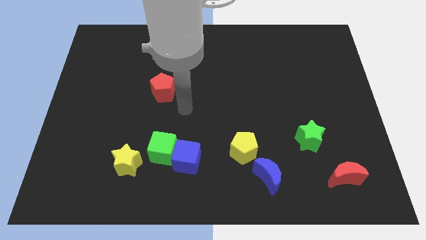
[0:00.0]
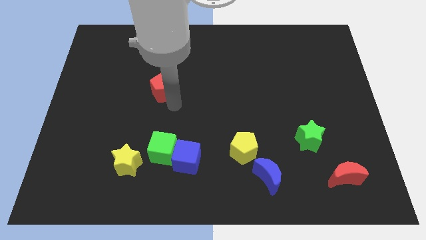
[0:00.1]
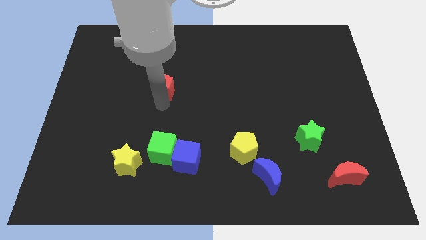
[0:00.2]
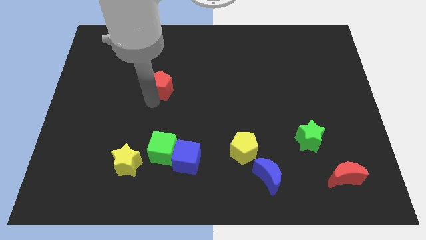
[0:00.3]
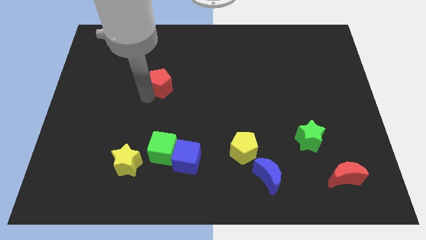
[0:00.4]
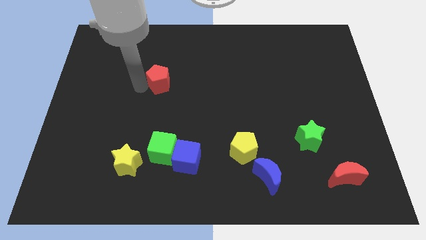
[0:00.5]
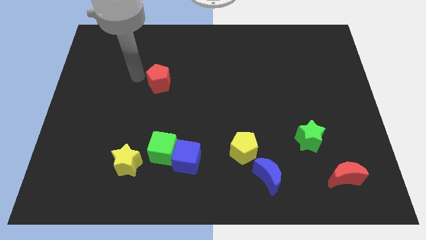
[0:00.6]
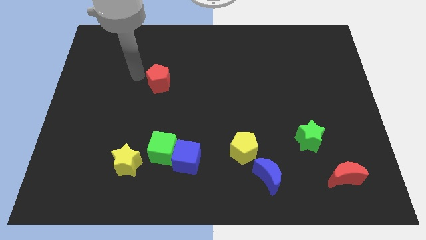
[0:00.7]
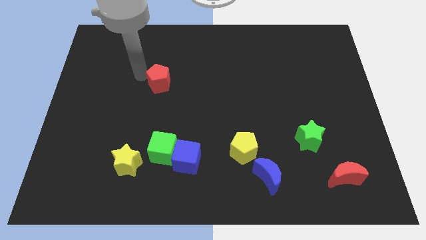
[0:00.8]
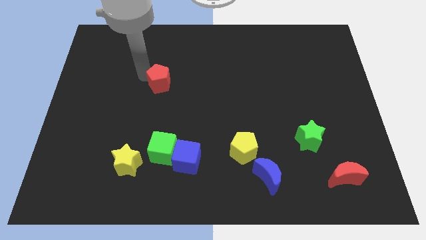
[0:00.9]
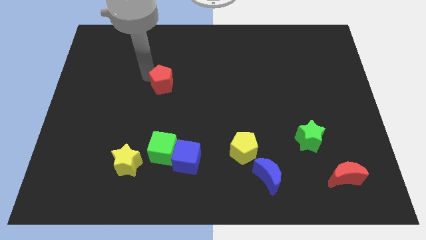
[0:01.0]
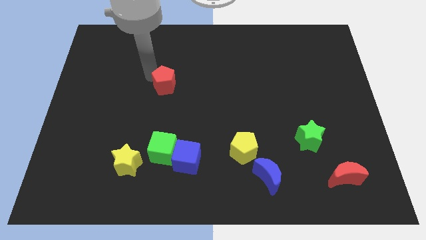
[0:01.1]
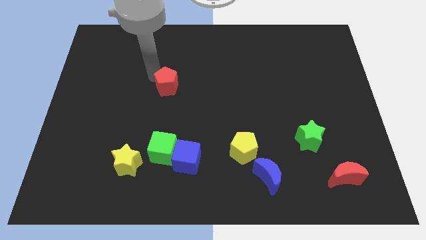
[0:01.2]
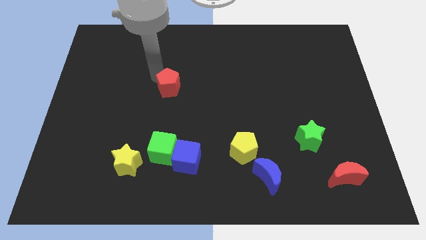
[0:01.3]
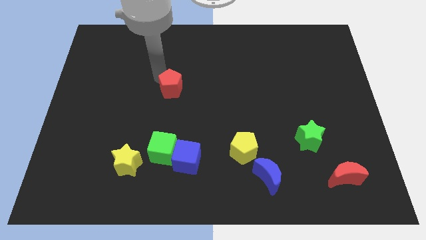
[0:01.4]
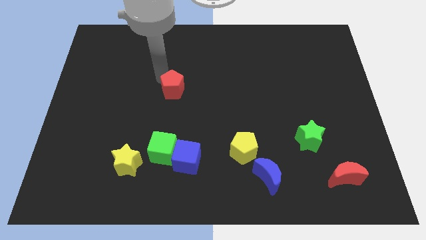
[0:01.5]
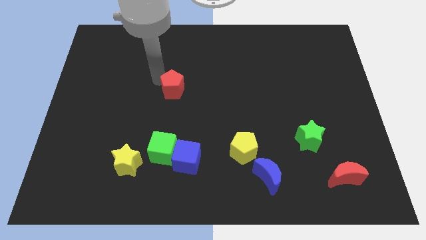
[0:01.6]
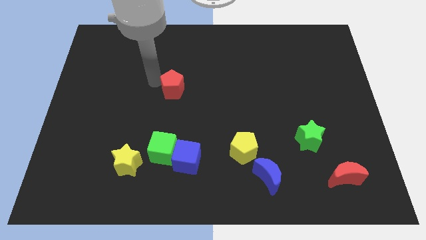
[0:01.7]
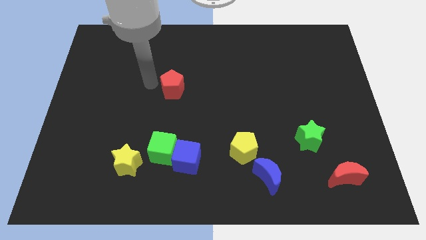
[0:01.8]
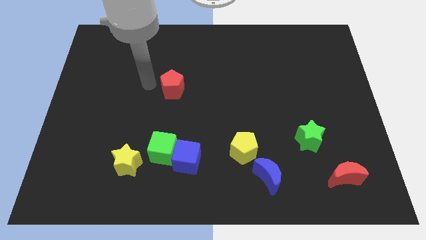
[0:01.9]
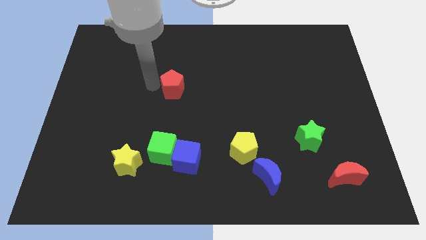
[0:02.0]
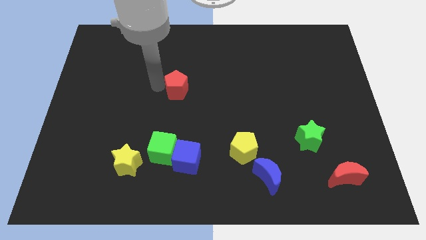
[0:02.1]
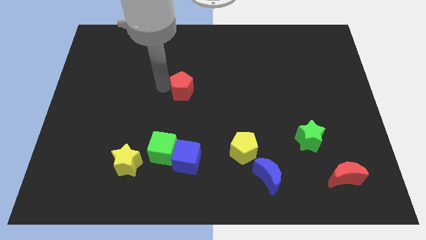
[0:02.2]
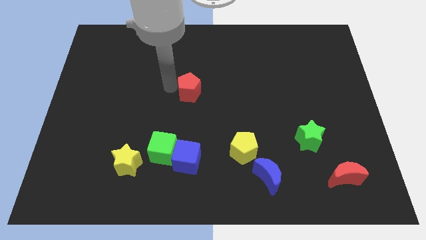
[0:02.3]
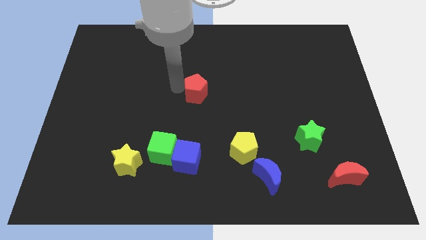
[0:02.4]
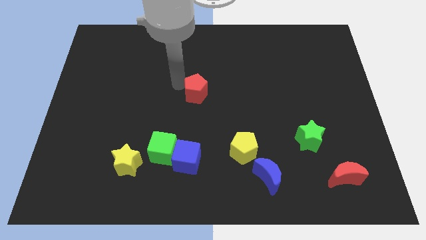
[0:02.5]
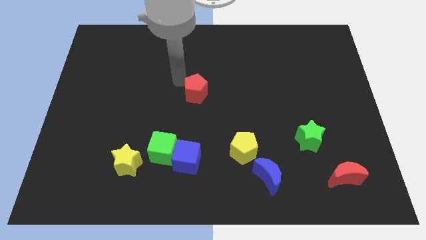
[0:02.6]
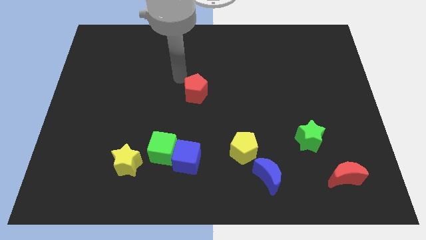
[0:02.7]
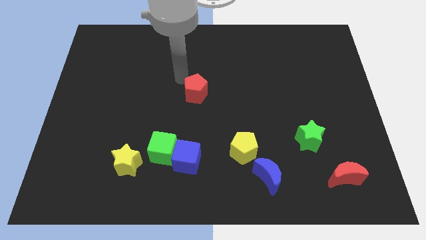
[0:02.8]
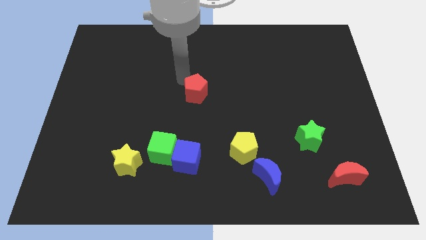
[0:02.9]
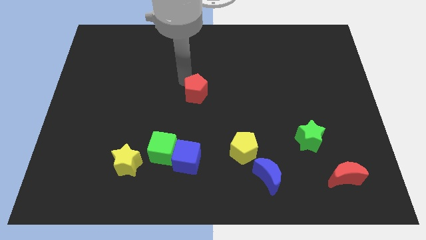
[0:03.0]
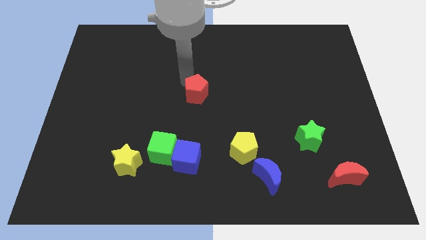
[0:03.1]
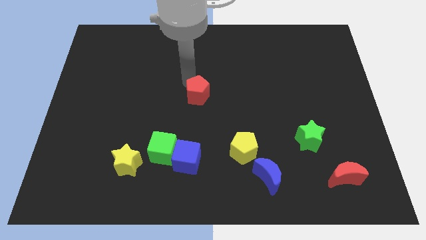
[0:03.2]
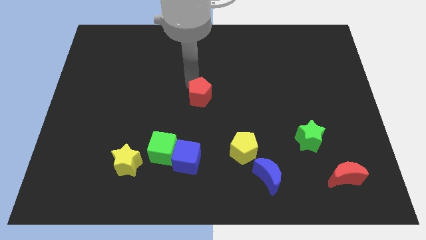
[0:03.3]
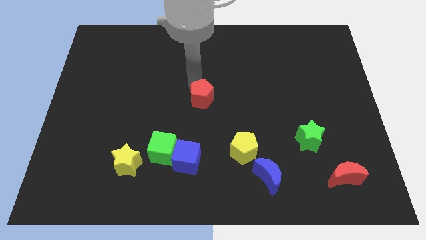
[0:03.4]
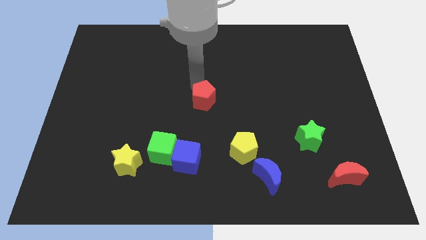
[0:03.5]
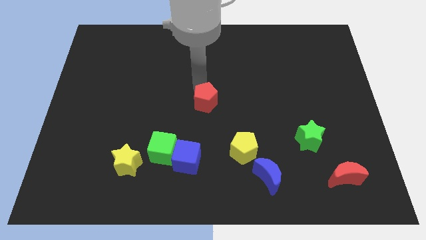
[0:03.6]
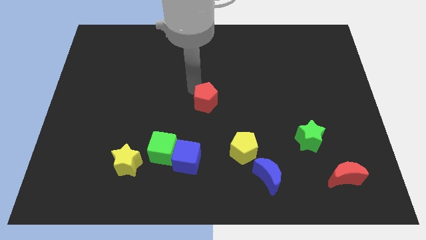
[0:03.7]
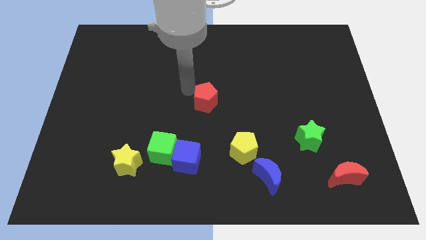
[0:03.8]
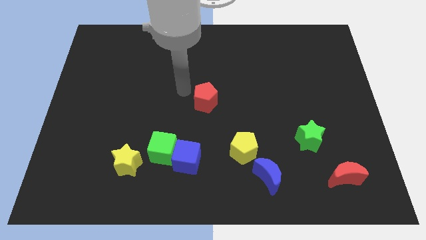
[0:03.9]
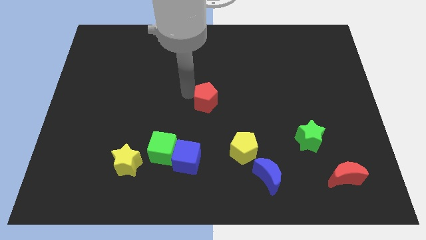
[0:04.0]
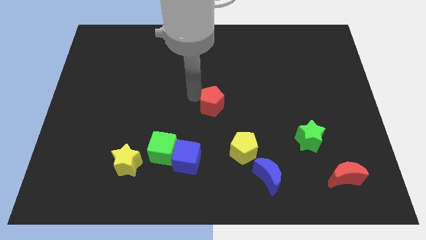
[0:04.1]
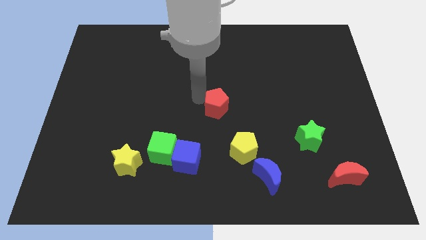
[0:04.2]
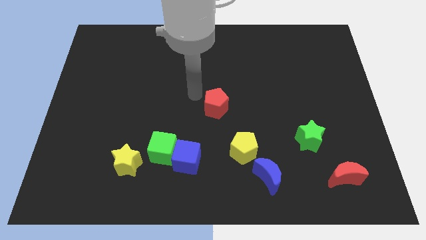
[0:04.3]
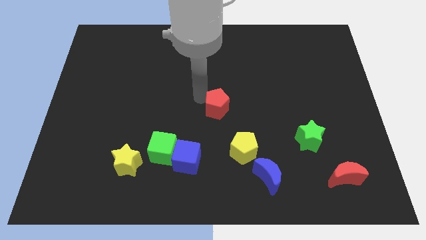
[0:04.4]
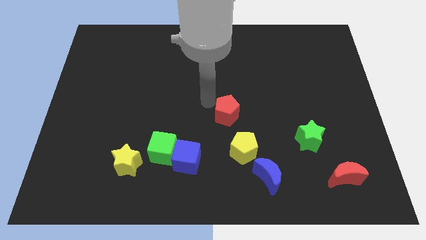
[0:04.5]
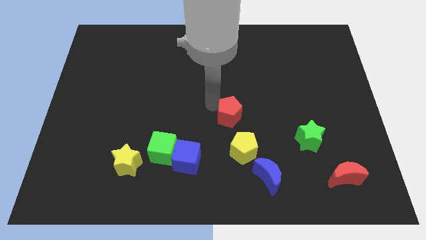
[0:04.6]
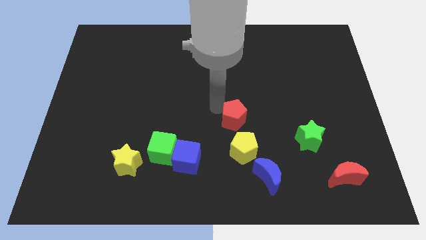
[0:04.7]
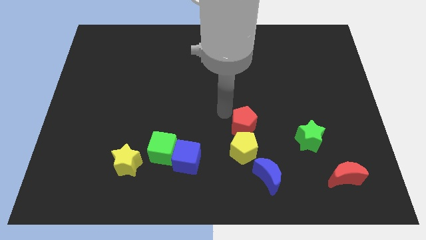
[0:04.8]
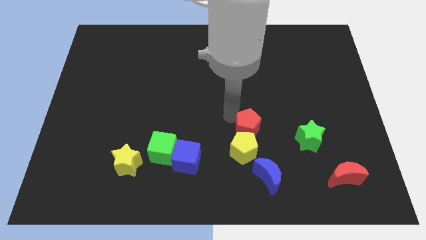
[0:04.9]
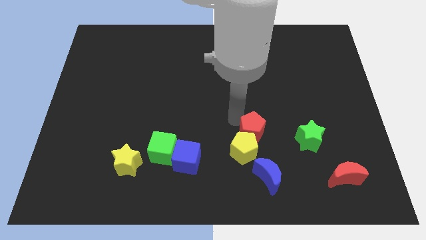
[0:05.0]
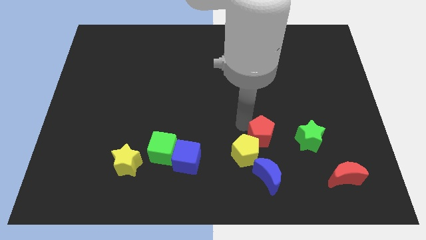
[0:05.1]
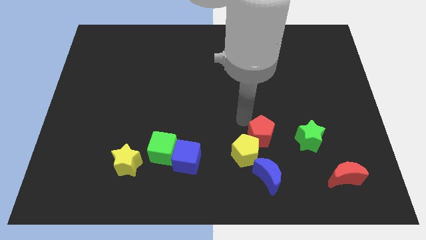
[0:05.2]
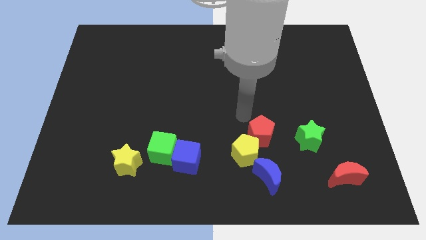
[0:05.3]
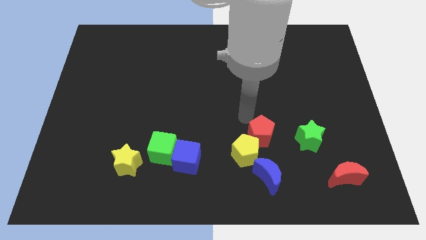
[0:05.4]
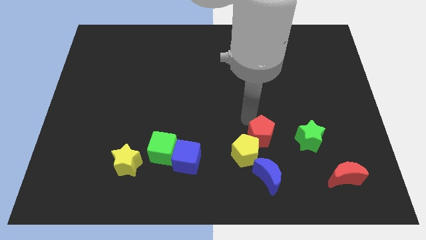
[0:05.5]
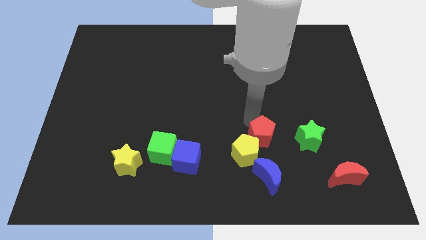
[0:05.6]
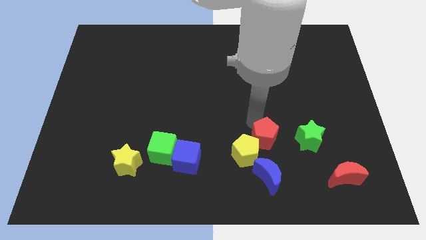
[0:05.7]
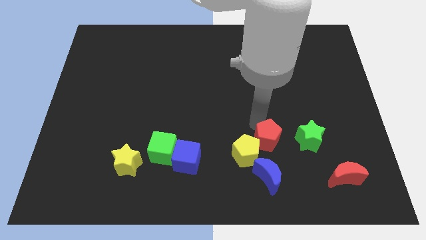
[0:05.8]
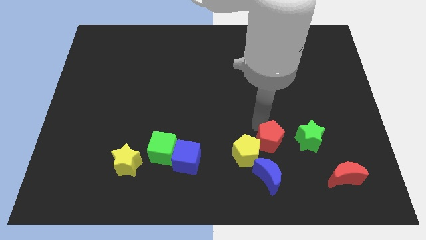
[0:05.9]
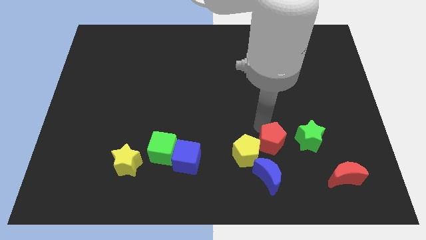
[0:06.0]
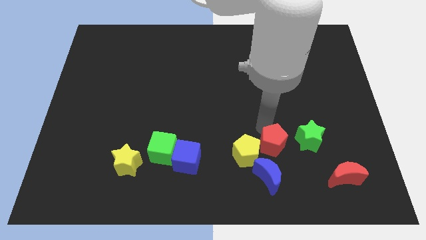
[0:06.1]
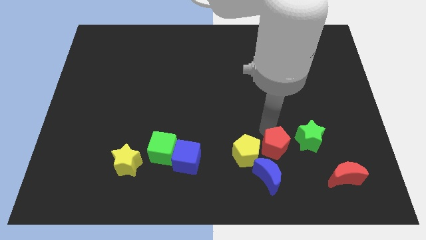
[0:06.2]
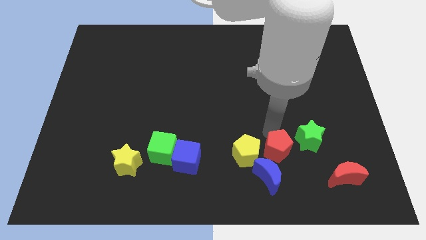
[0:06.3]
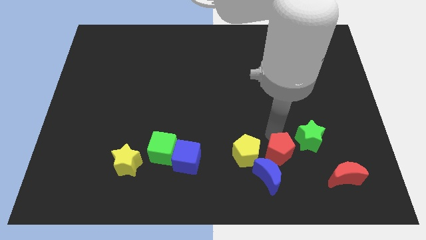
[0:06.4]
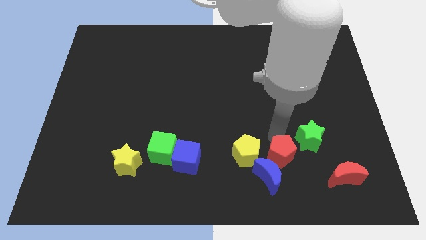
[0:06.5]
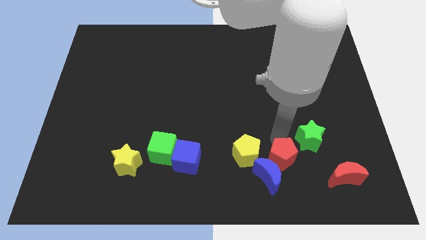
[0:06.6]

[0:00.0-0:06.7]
slide the red pentagon to the left side of the red moon
